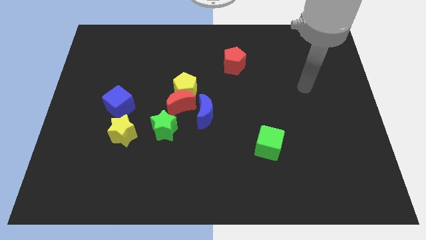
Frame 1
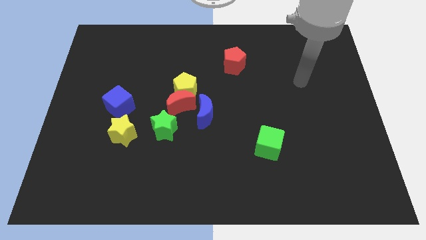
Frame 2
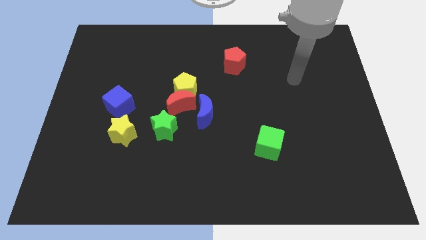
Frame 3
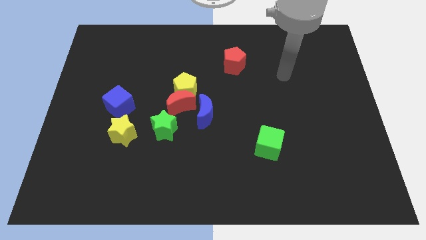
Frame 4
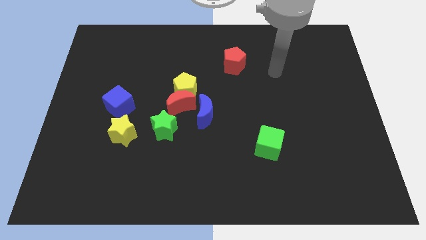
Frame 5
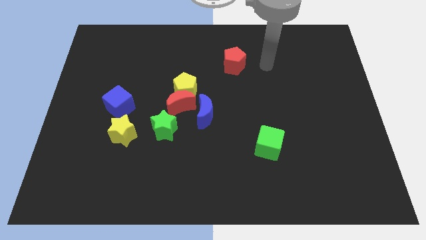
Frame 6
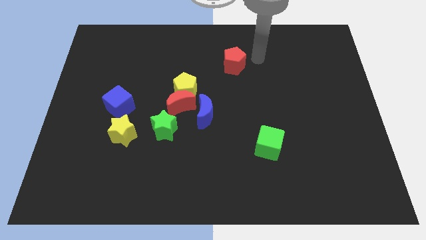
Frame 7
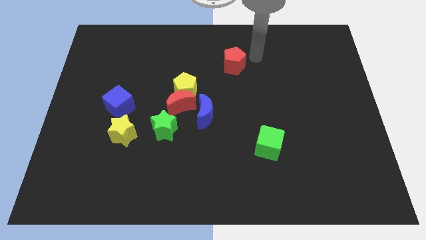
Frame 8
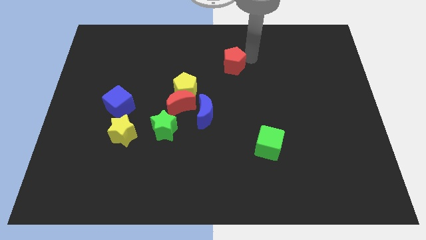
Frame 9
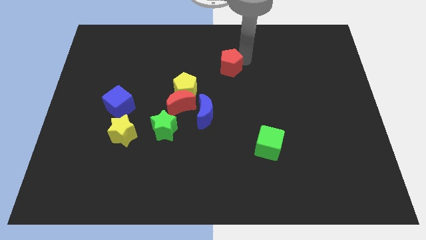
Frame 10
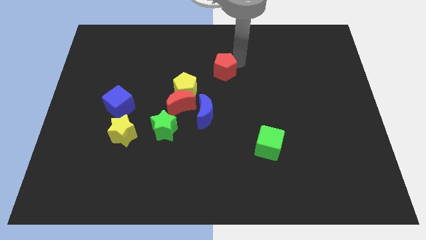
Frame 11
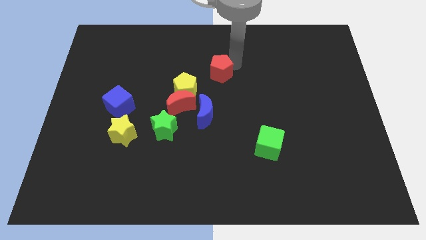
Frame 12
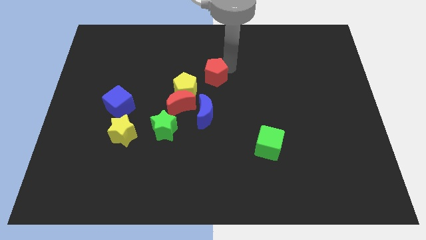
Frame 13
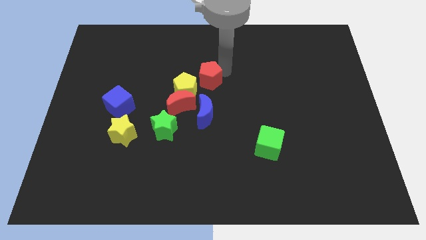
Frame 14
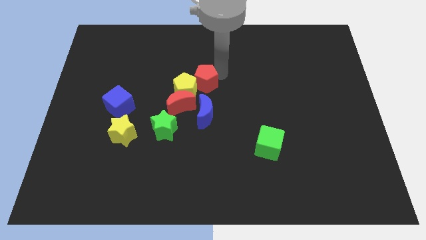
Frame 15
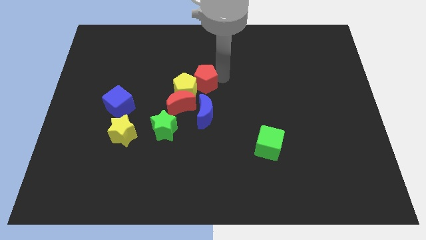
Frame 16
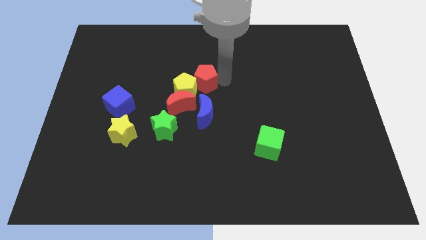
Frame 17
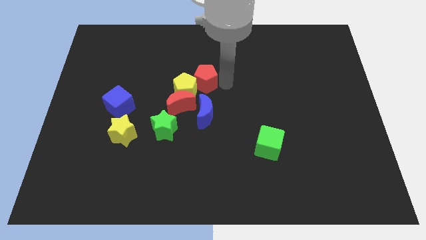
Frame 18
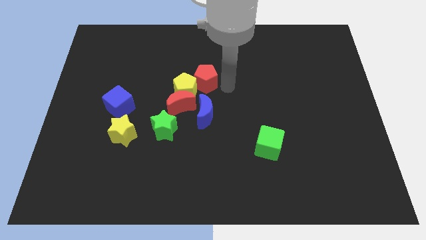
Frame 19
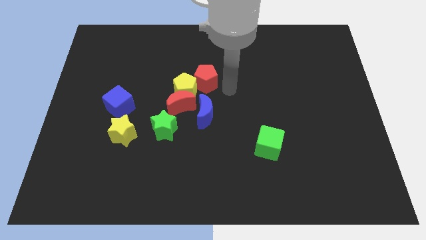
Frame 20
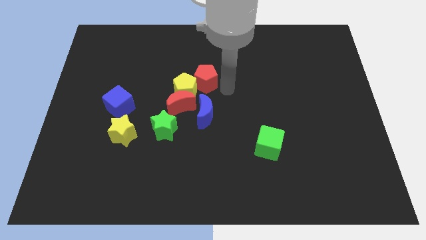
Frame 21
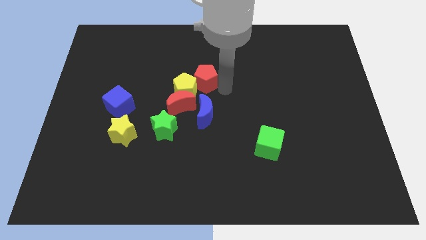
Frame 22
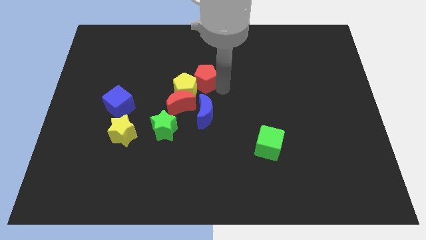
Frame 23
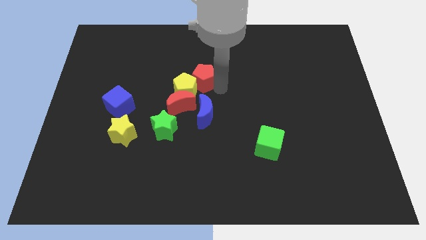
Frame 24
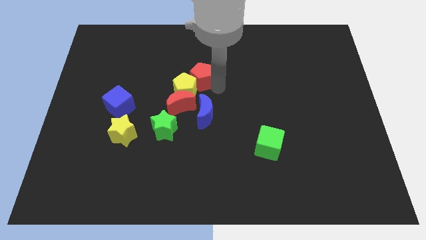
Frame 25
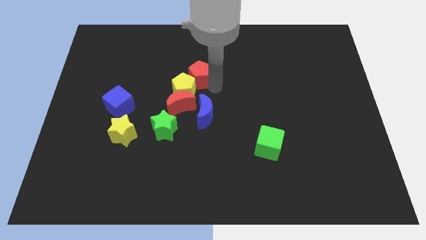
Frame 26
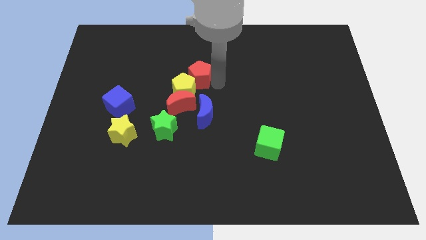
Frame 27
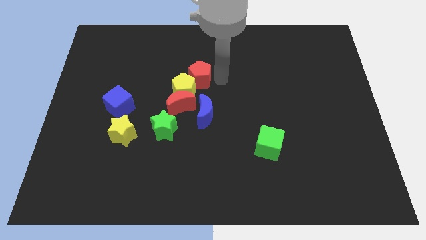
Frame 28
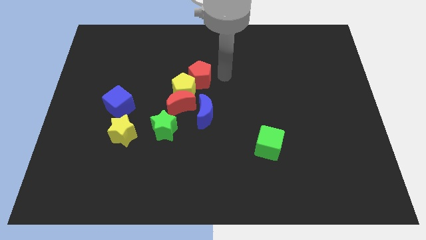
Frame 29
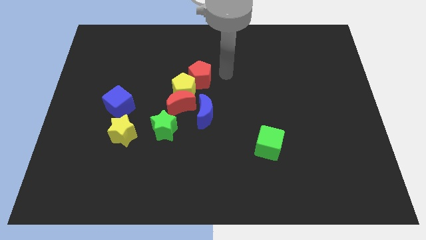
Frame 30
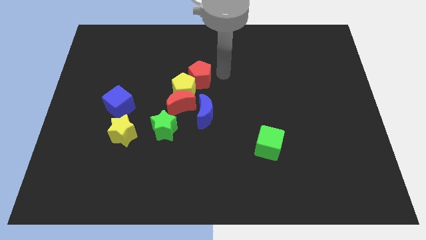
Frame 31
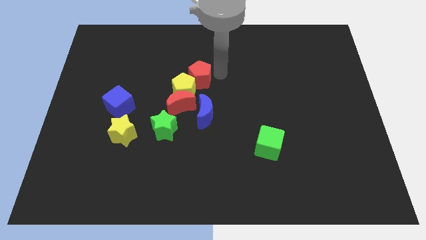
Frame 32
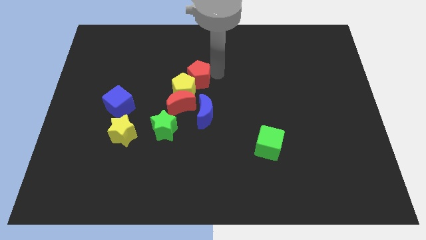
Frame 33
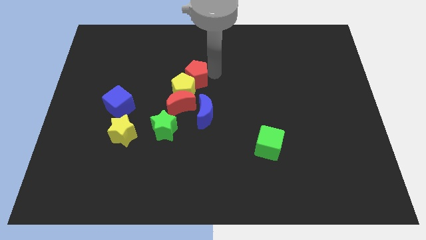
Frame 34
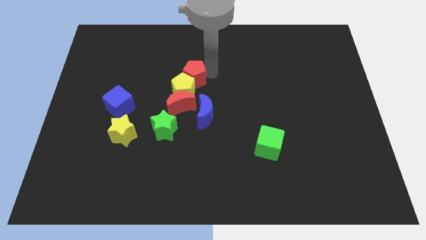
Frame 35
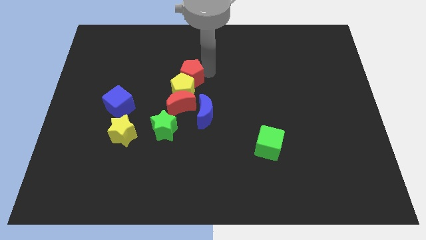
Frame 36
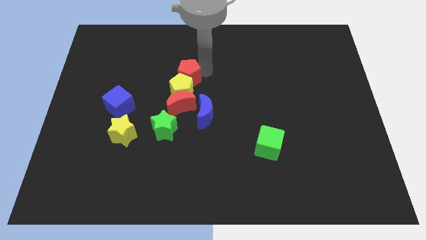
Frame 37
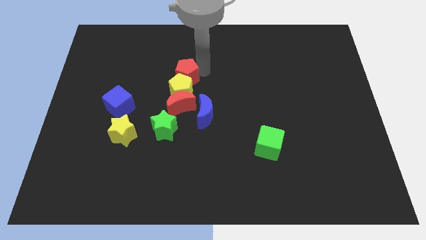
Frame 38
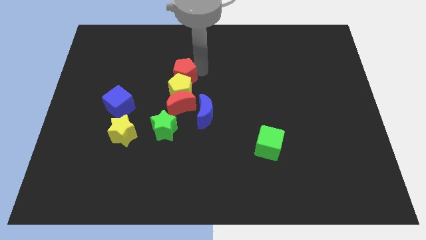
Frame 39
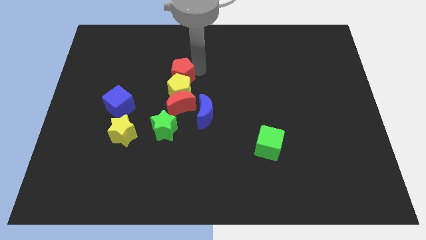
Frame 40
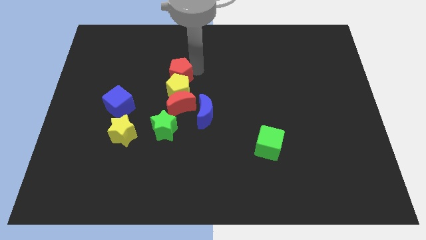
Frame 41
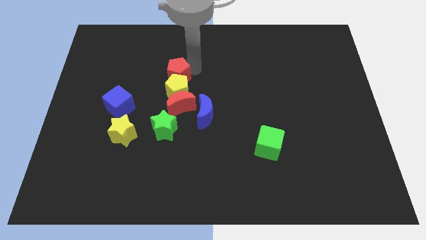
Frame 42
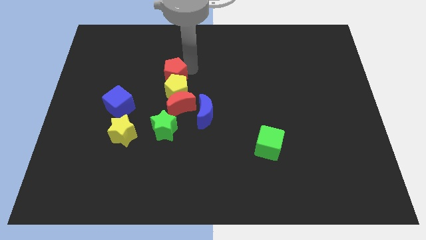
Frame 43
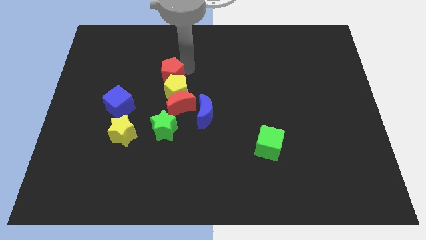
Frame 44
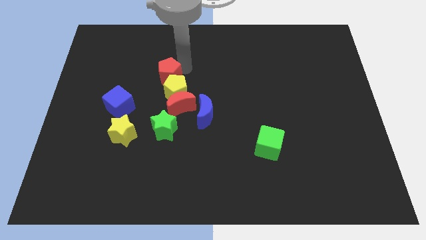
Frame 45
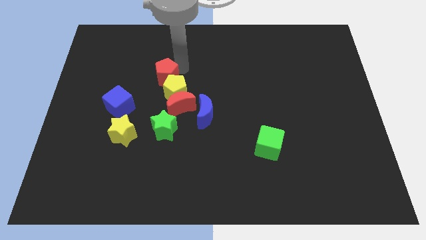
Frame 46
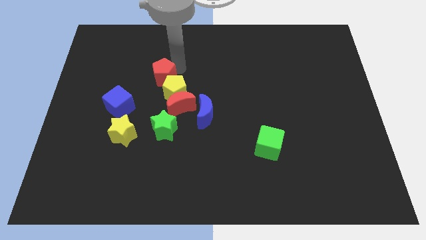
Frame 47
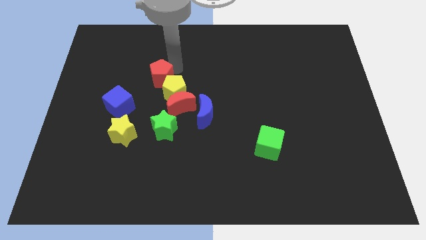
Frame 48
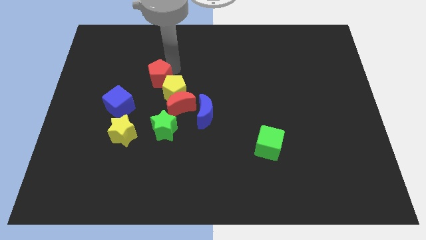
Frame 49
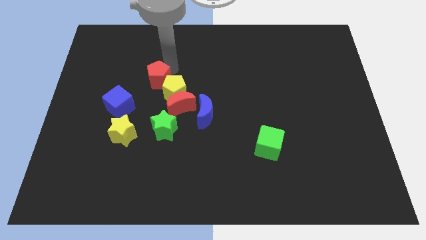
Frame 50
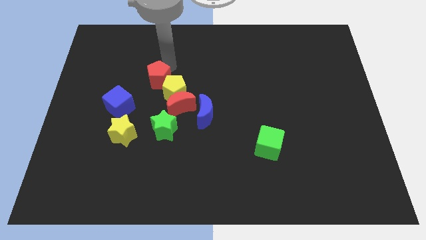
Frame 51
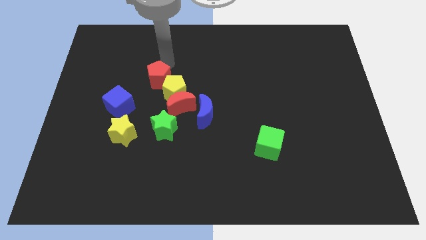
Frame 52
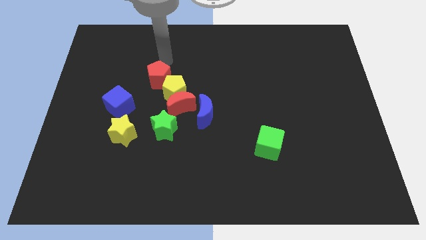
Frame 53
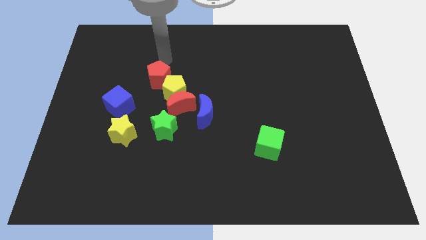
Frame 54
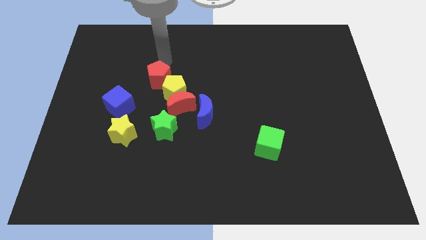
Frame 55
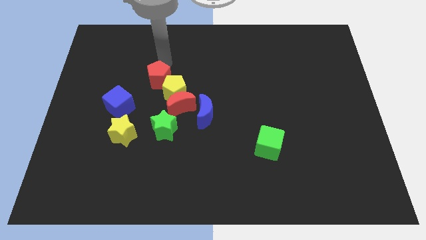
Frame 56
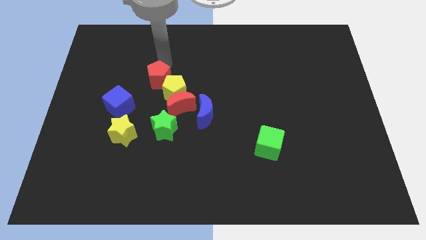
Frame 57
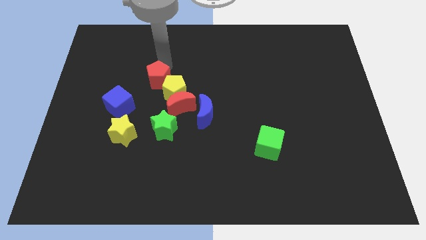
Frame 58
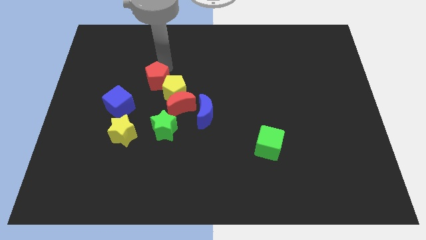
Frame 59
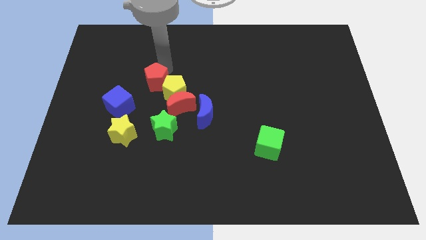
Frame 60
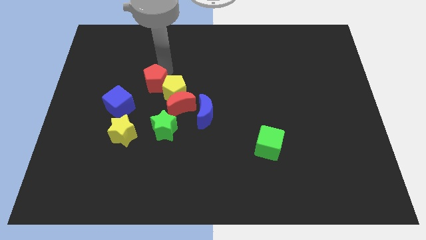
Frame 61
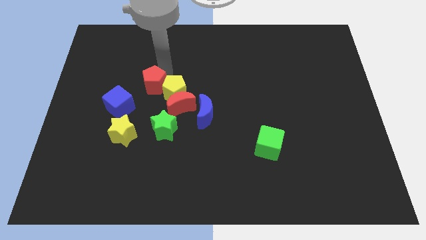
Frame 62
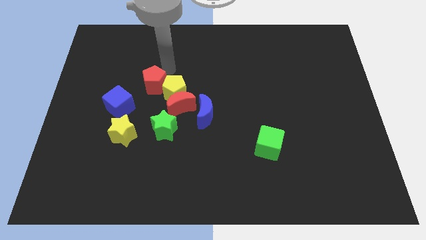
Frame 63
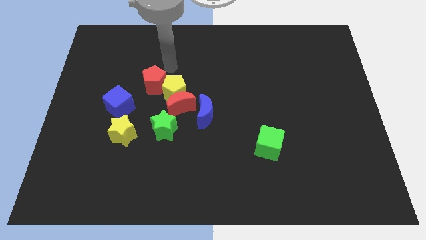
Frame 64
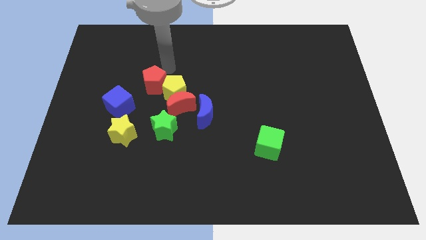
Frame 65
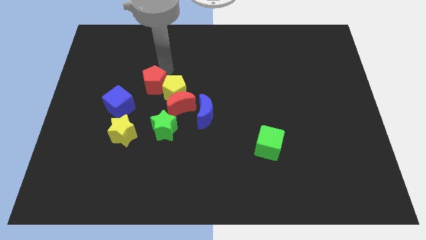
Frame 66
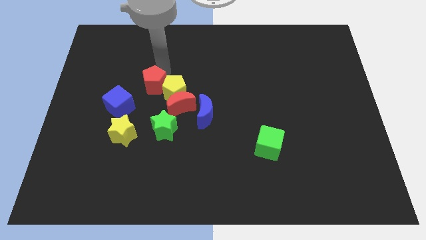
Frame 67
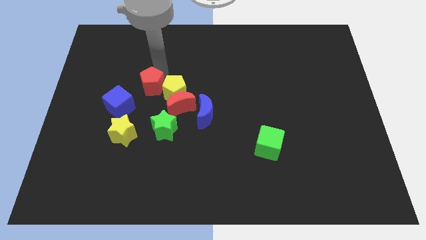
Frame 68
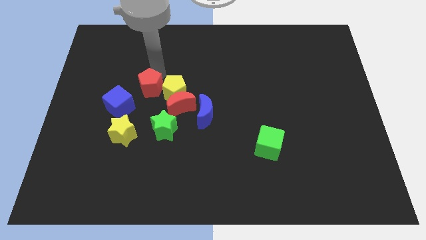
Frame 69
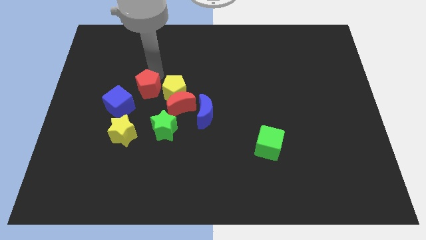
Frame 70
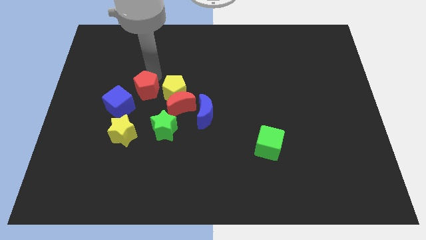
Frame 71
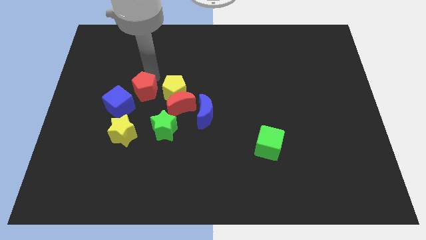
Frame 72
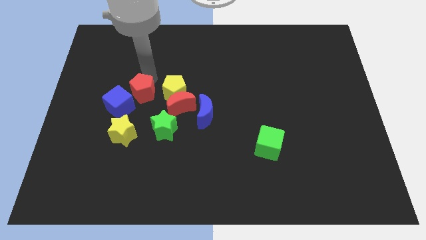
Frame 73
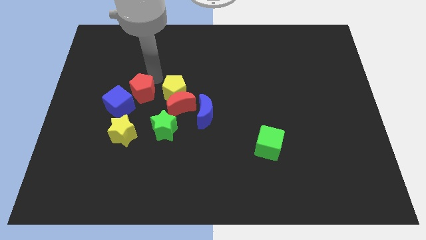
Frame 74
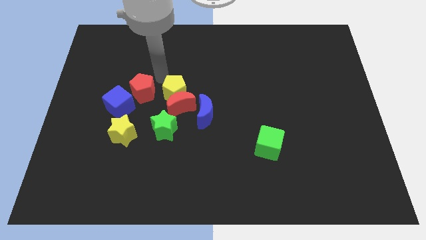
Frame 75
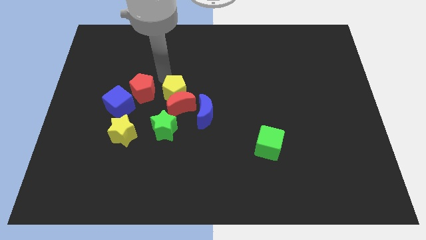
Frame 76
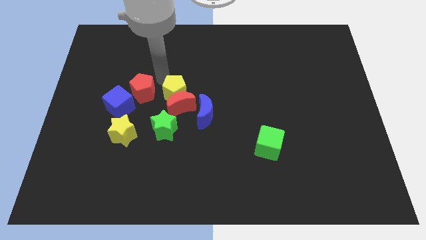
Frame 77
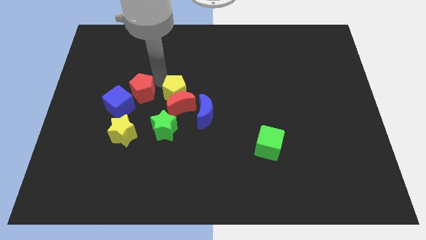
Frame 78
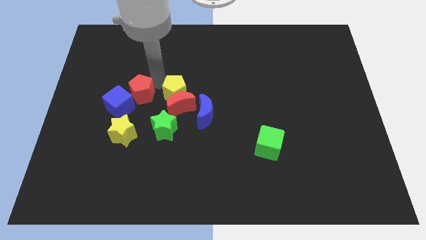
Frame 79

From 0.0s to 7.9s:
put the red pentagon next to the blue cube
